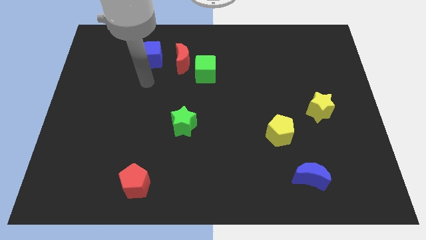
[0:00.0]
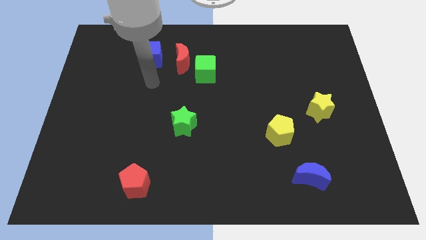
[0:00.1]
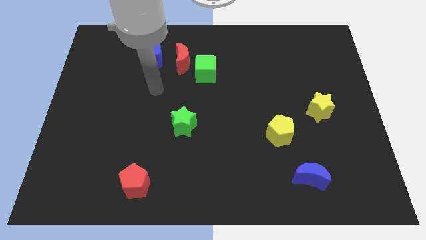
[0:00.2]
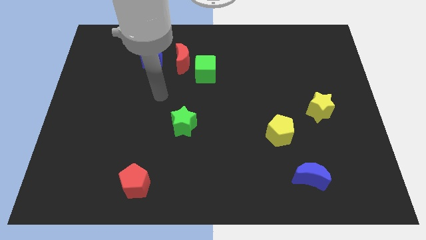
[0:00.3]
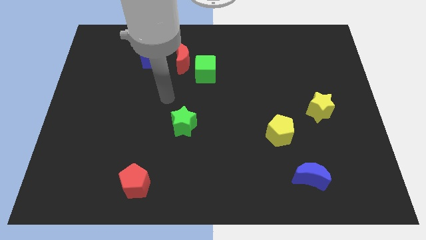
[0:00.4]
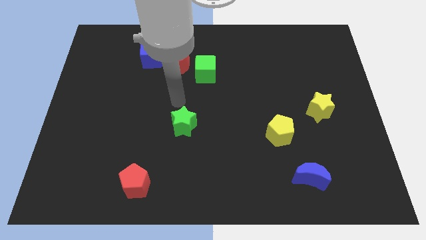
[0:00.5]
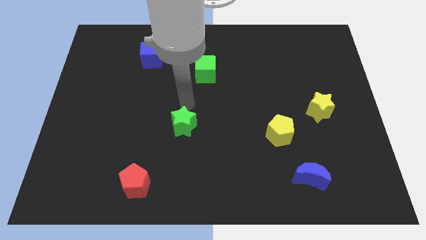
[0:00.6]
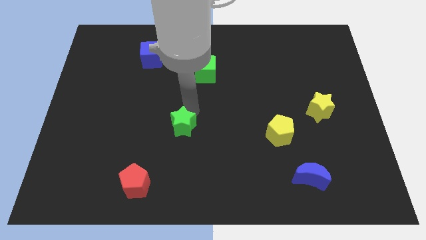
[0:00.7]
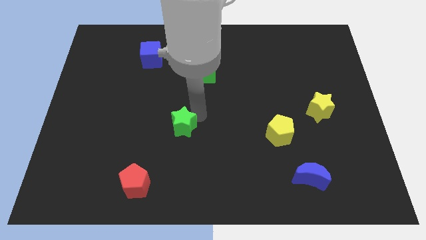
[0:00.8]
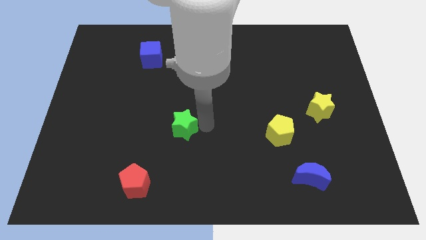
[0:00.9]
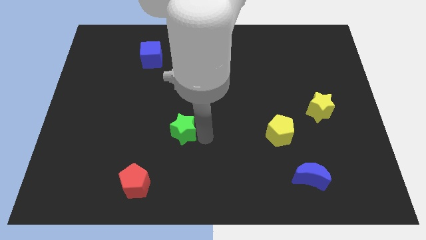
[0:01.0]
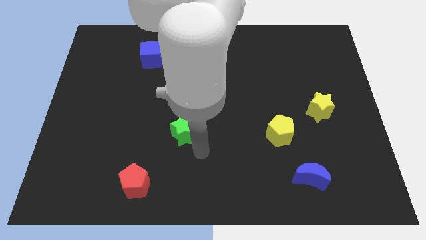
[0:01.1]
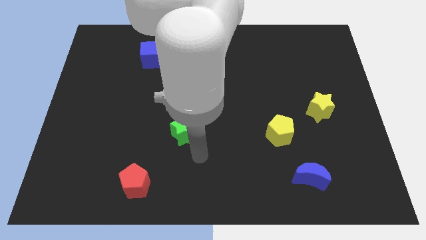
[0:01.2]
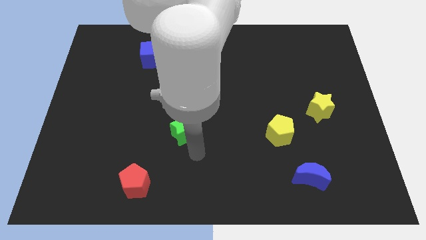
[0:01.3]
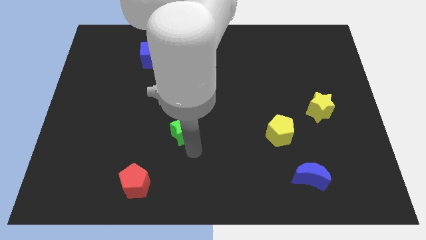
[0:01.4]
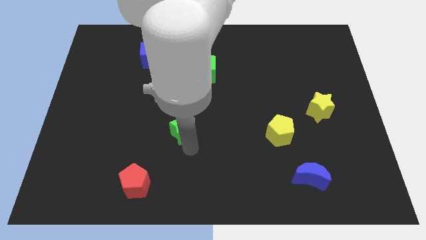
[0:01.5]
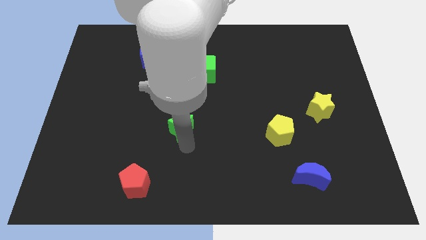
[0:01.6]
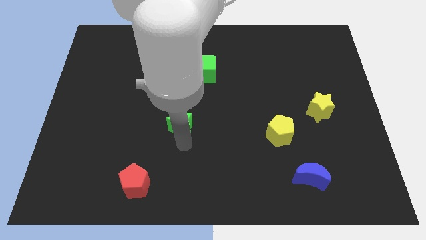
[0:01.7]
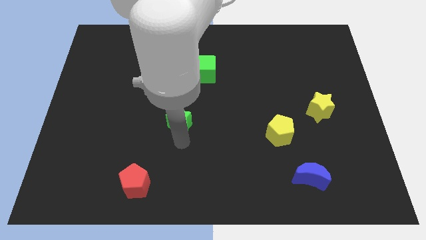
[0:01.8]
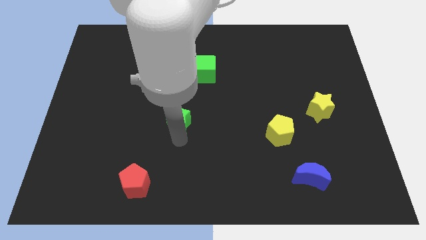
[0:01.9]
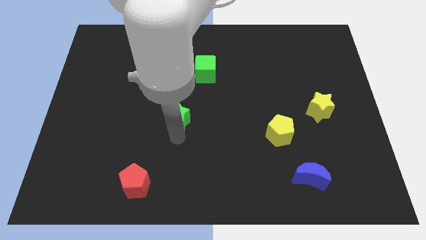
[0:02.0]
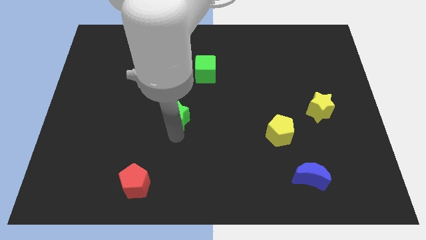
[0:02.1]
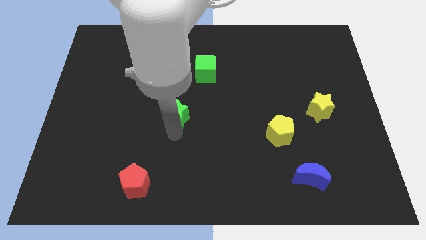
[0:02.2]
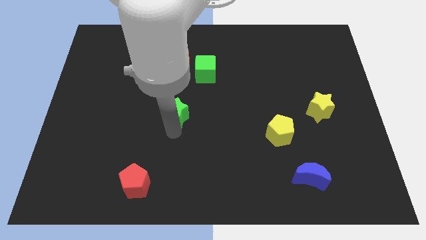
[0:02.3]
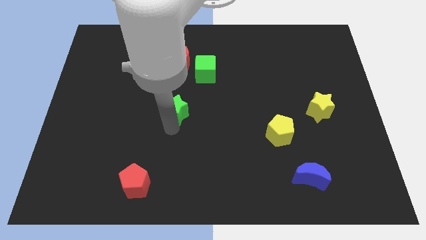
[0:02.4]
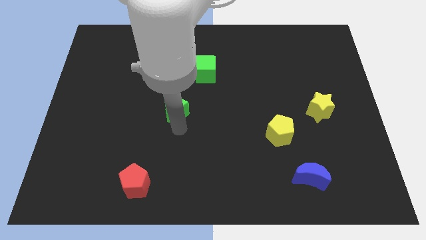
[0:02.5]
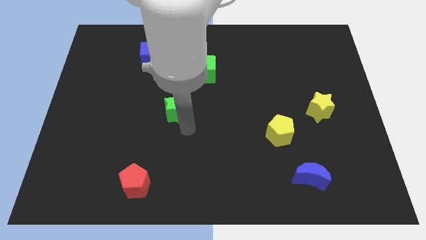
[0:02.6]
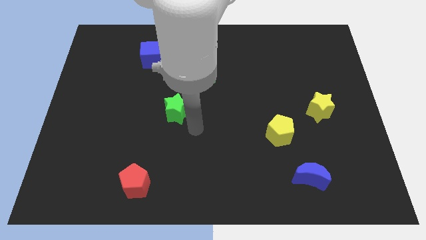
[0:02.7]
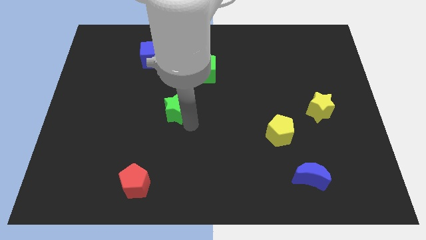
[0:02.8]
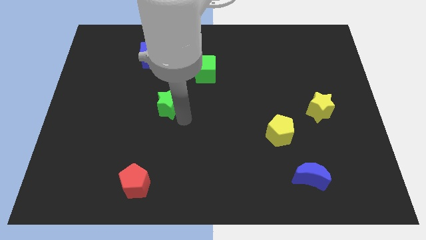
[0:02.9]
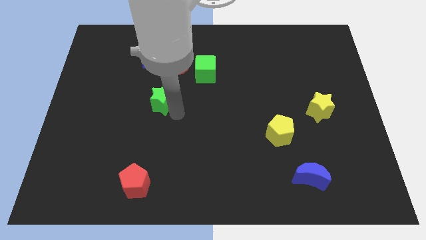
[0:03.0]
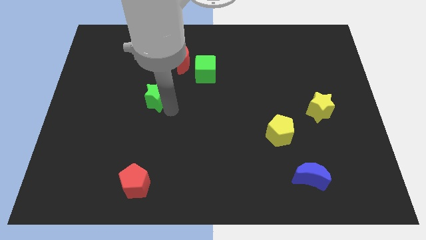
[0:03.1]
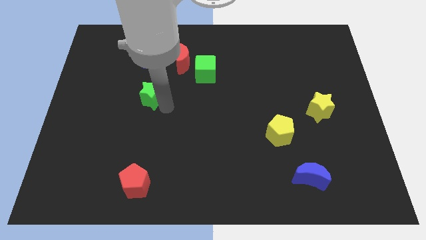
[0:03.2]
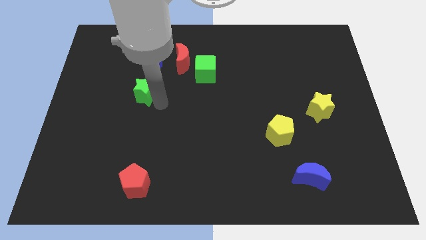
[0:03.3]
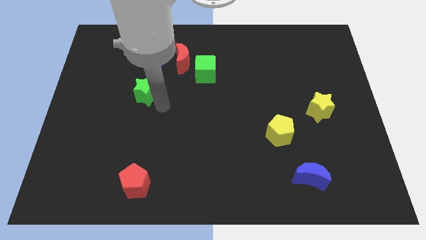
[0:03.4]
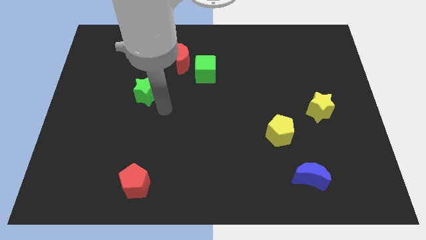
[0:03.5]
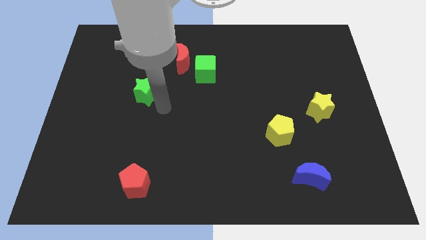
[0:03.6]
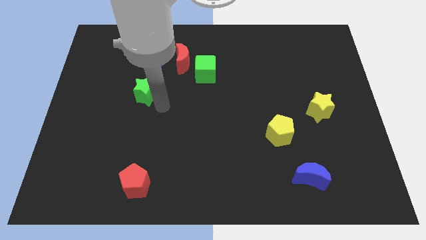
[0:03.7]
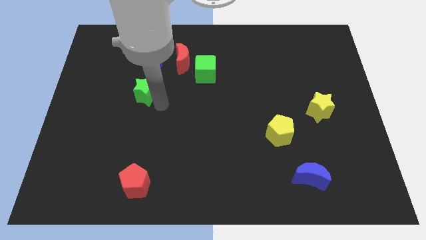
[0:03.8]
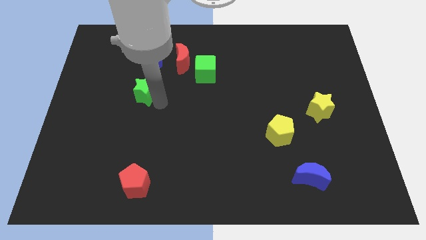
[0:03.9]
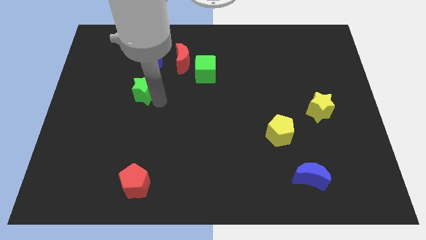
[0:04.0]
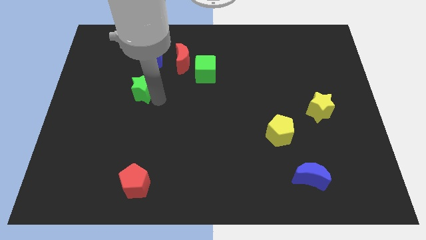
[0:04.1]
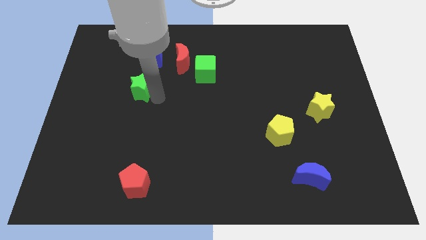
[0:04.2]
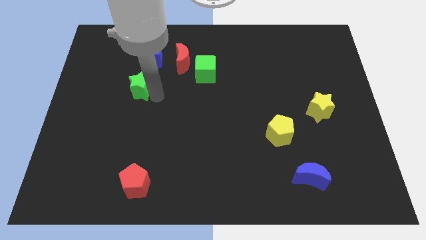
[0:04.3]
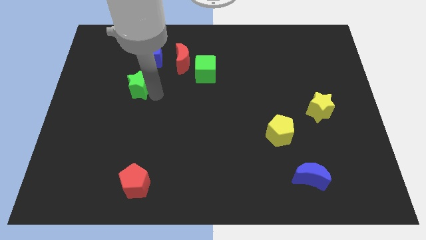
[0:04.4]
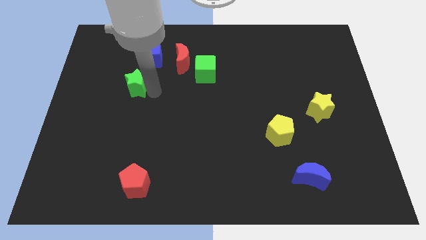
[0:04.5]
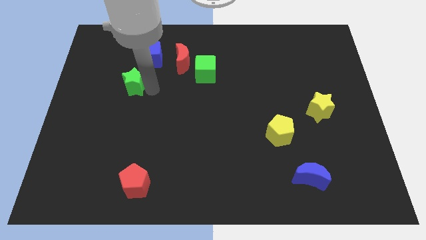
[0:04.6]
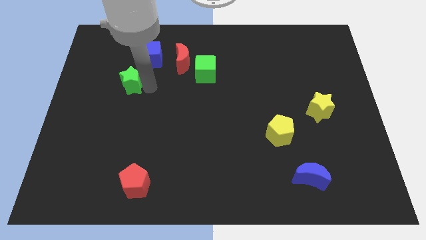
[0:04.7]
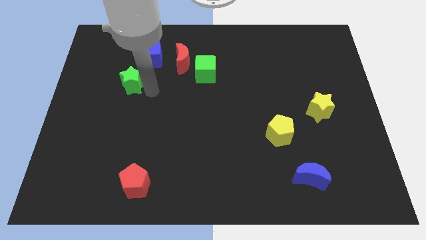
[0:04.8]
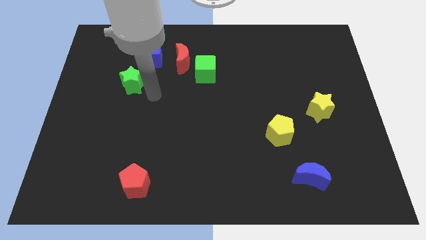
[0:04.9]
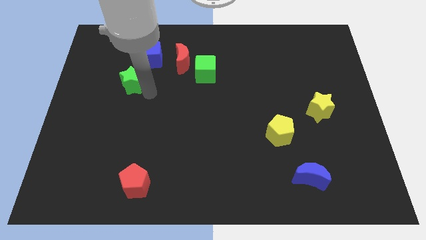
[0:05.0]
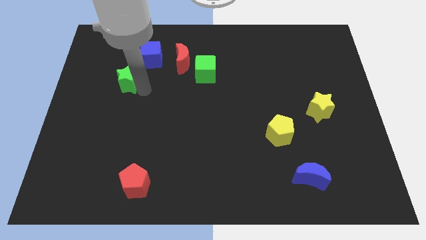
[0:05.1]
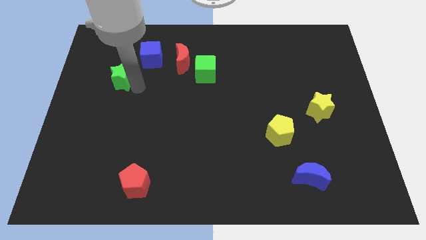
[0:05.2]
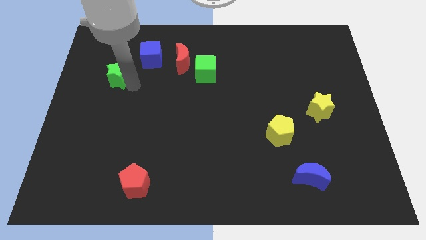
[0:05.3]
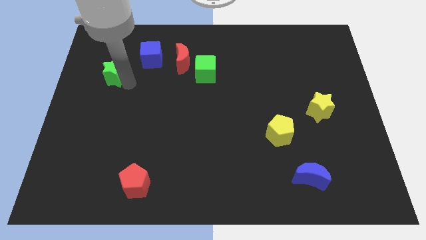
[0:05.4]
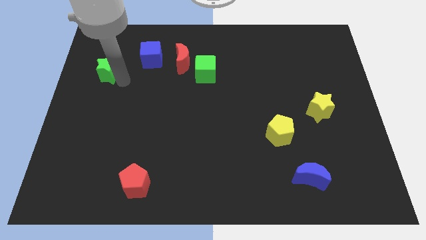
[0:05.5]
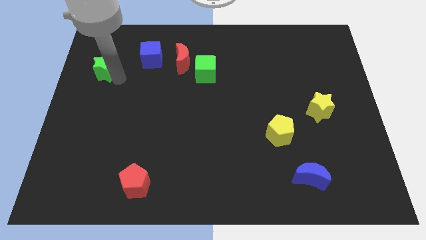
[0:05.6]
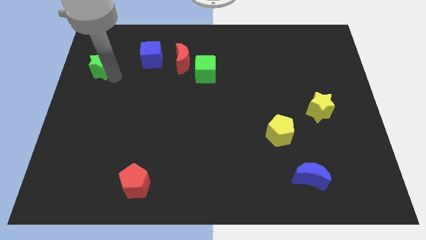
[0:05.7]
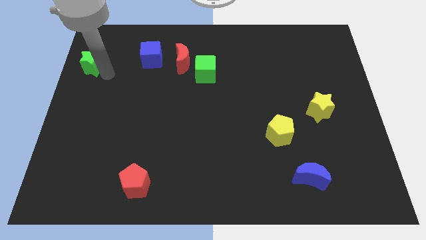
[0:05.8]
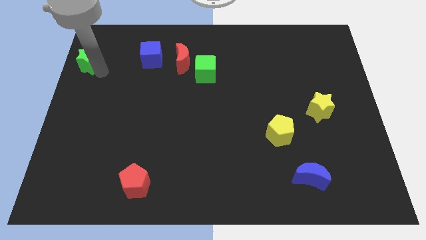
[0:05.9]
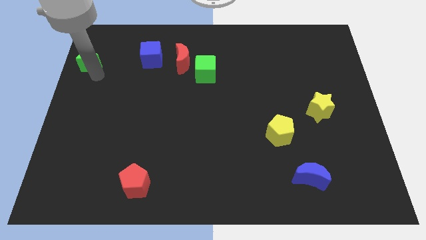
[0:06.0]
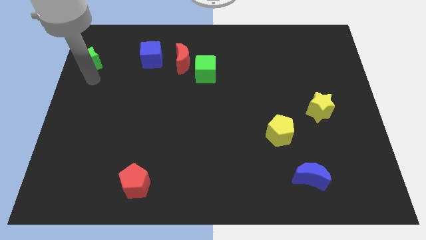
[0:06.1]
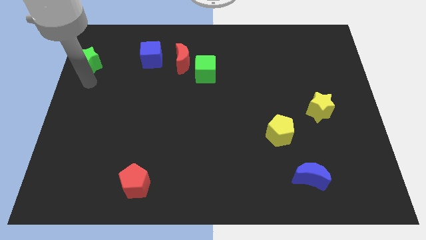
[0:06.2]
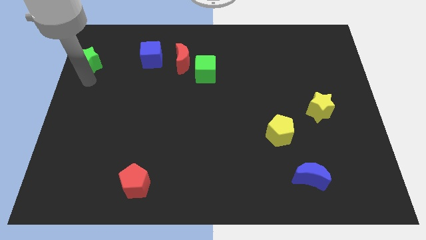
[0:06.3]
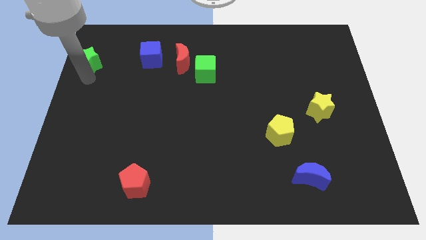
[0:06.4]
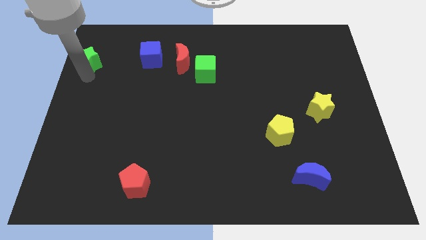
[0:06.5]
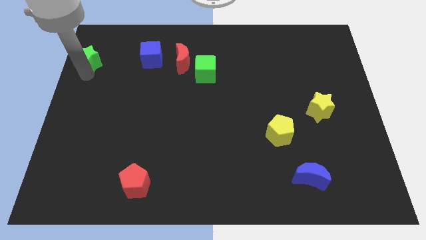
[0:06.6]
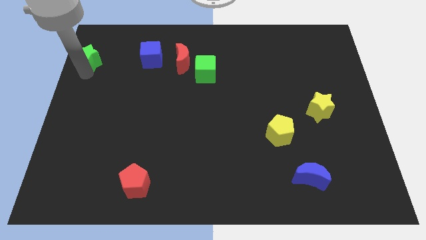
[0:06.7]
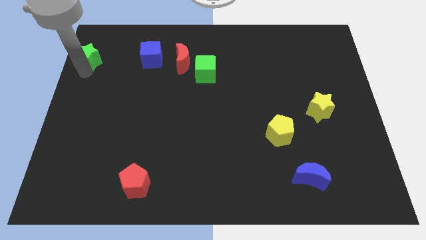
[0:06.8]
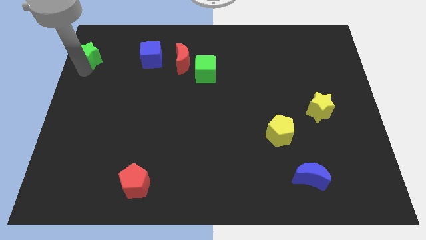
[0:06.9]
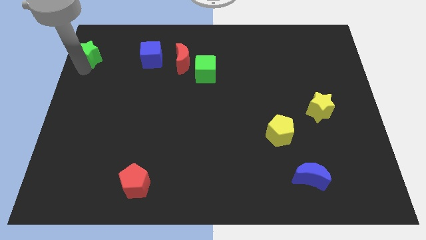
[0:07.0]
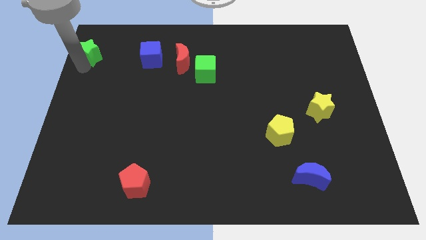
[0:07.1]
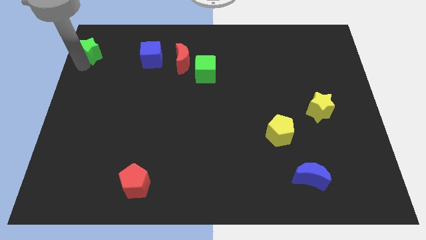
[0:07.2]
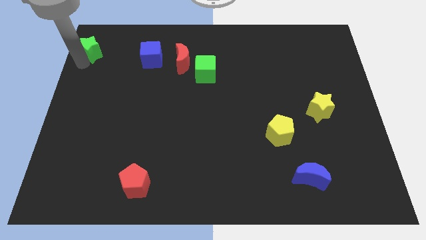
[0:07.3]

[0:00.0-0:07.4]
slide the green star to the upper left corner
